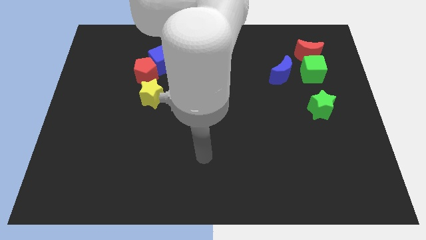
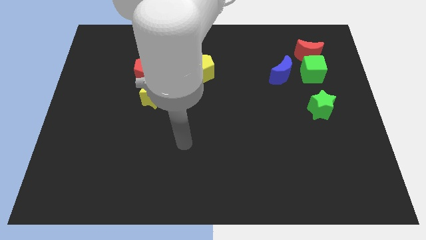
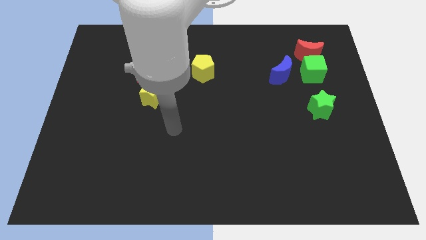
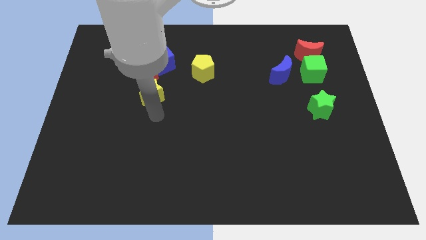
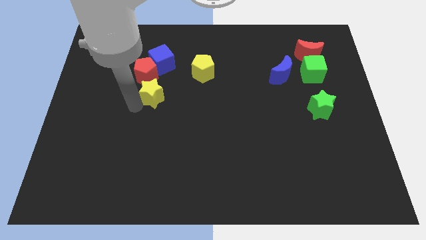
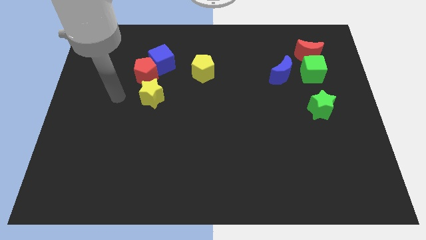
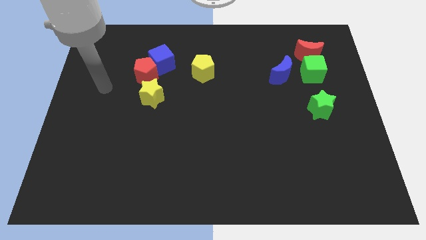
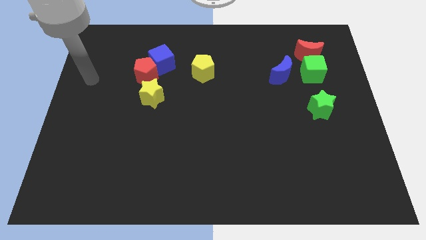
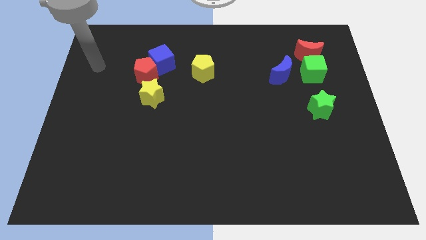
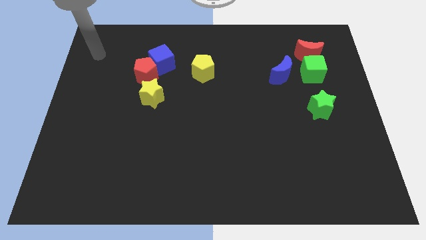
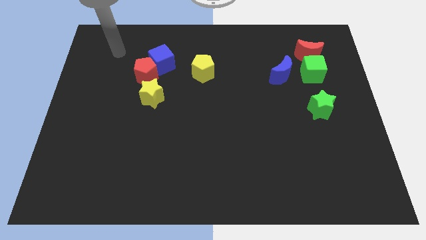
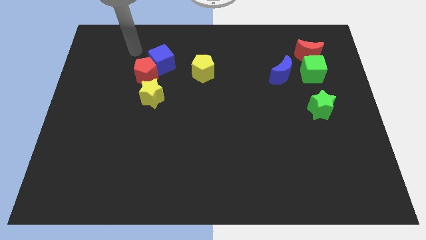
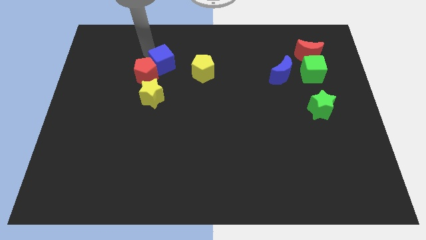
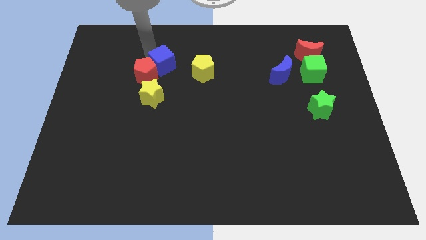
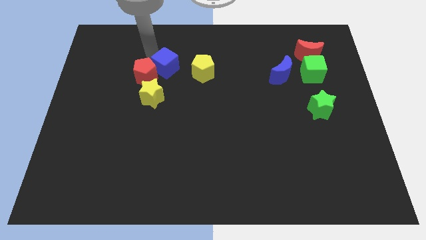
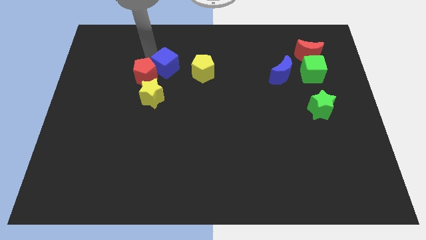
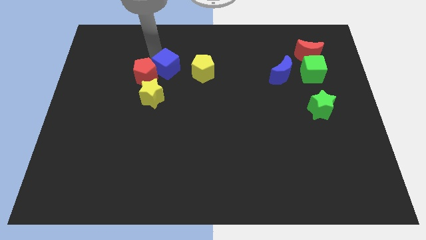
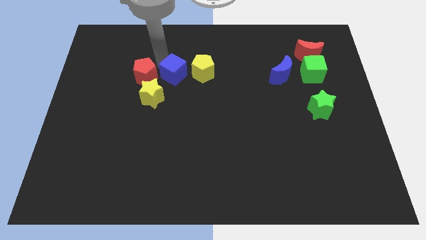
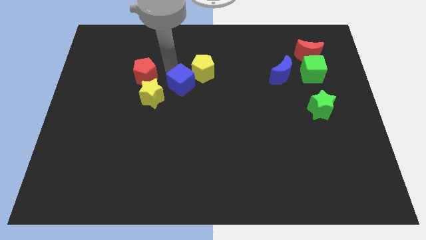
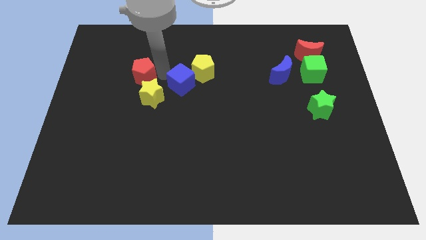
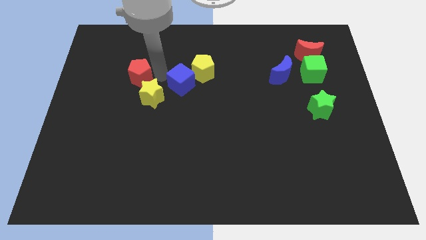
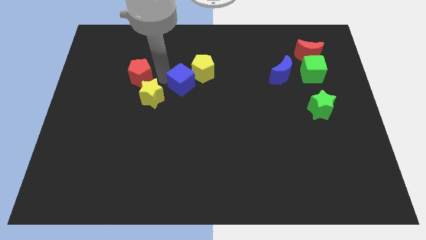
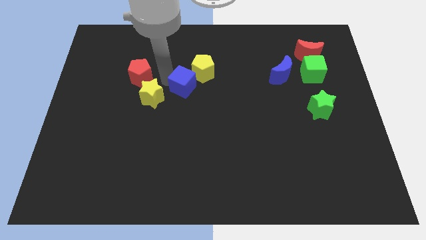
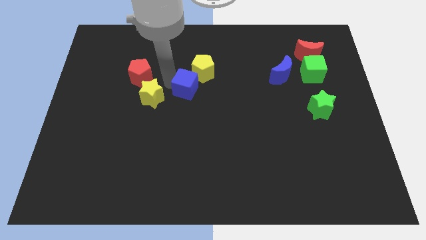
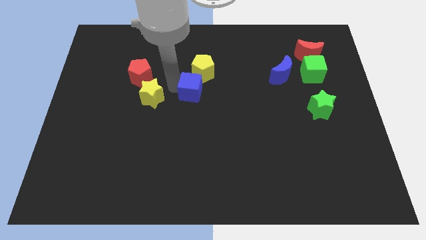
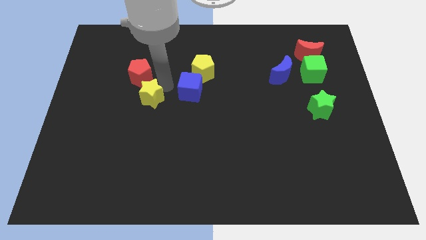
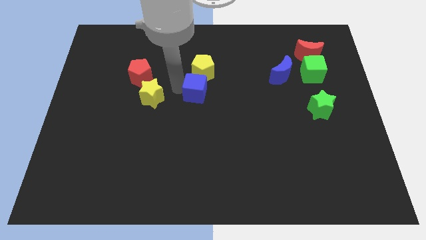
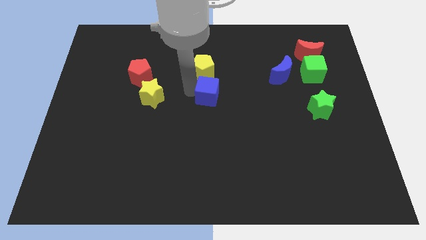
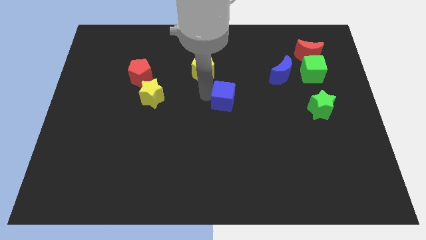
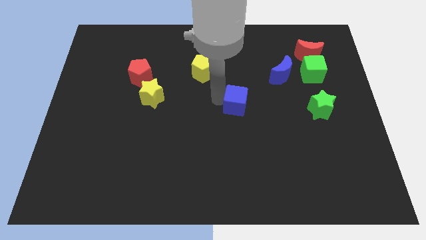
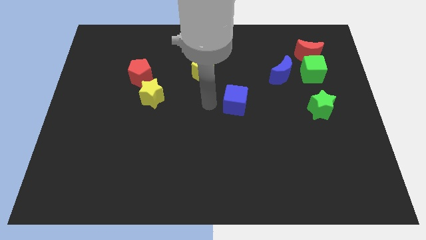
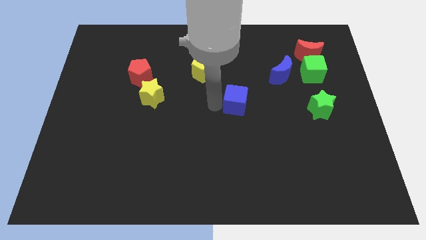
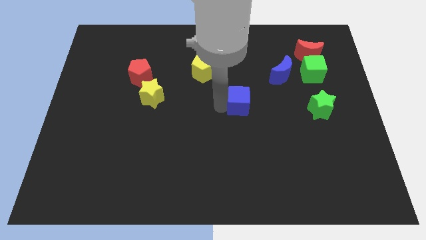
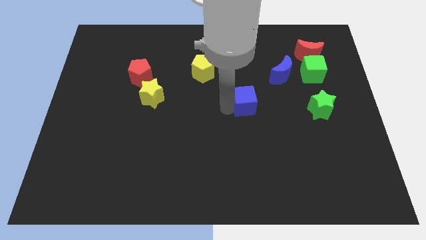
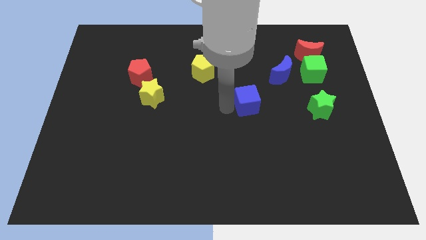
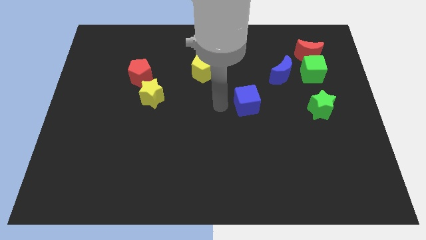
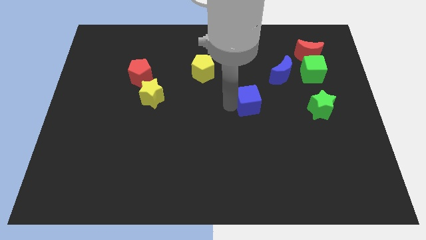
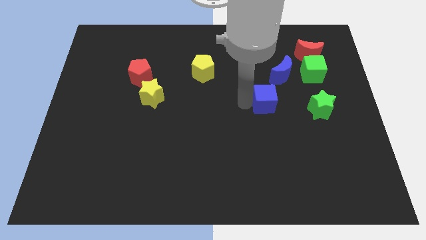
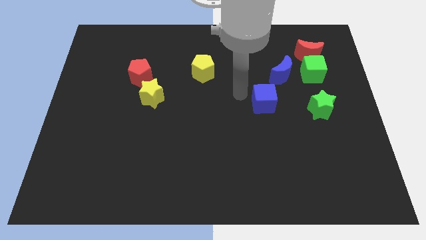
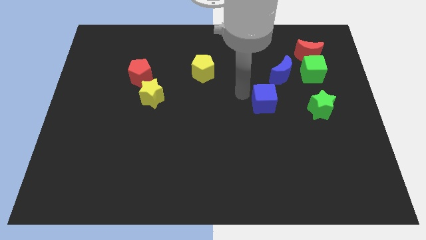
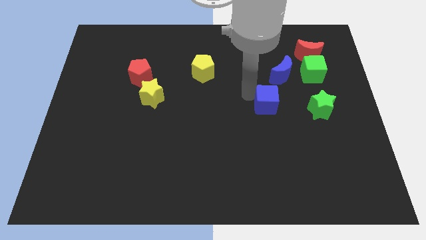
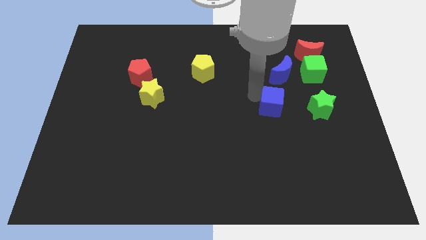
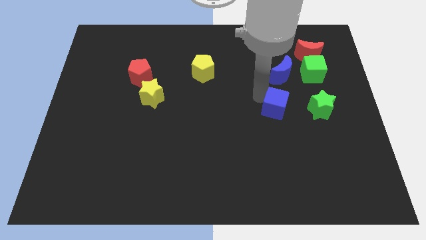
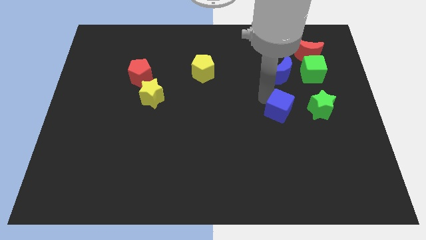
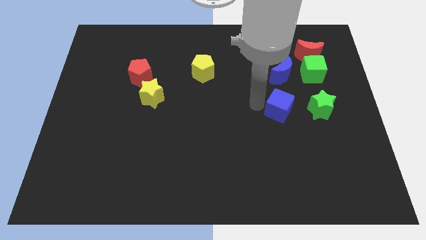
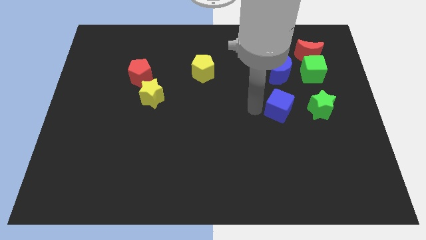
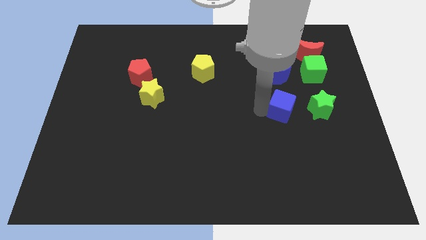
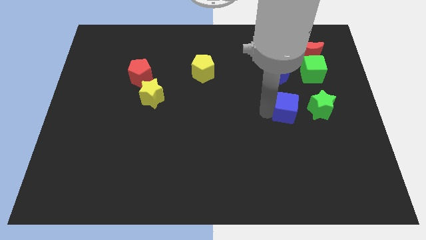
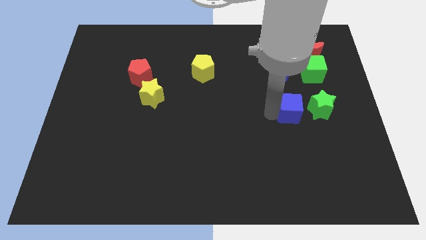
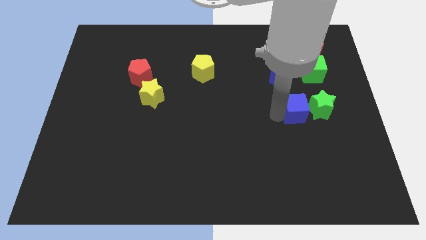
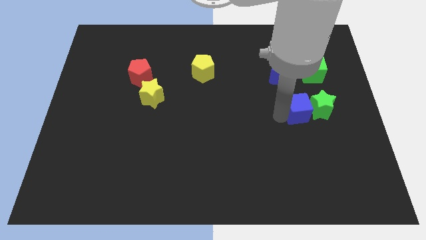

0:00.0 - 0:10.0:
push the blue cube next to the green star

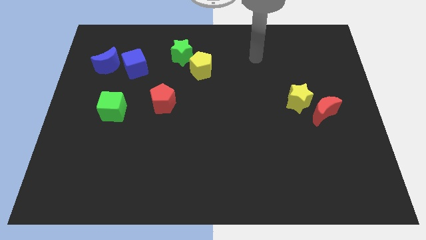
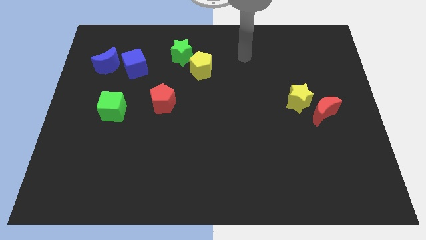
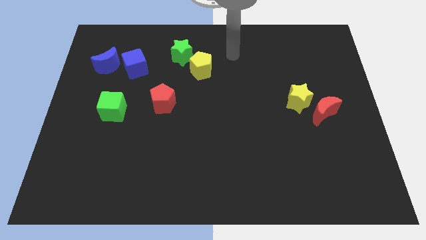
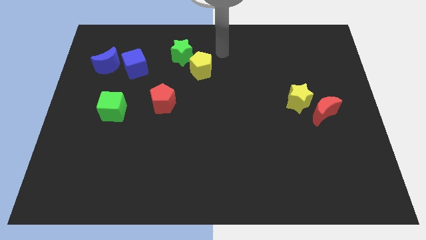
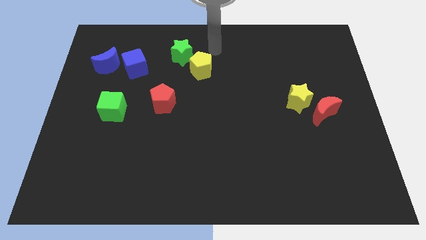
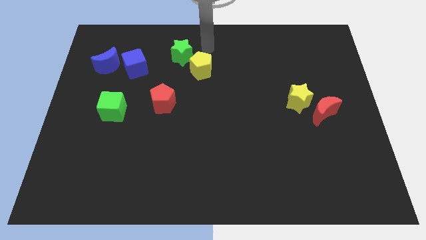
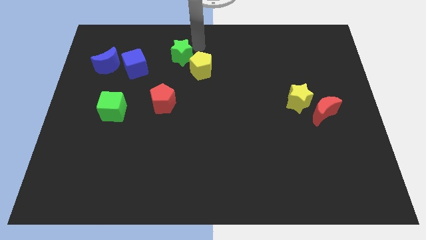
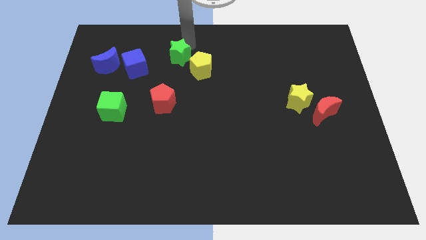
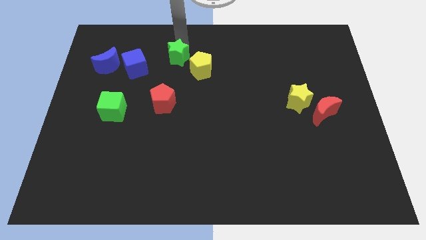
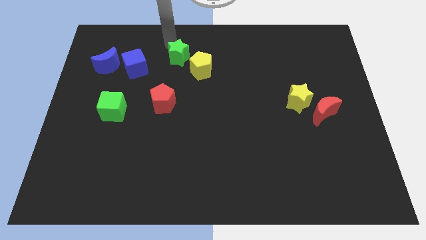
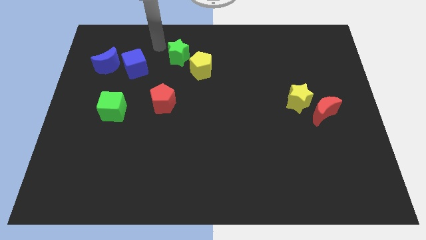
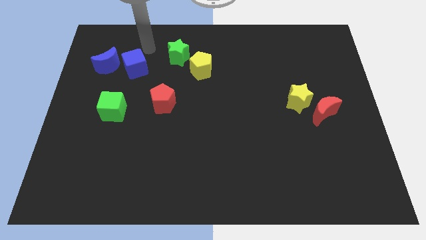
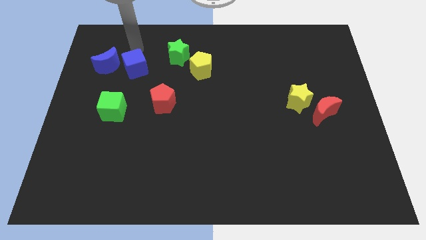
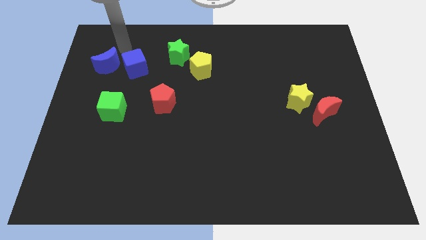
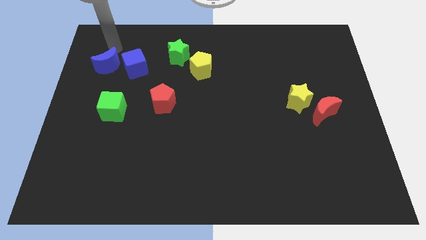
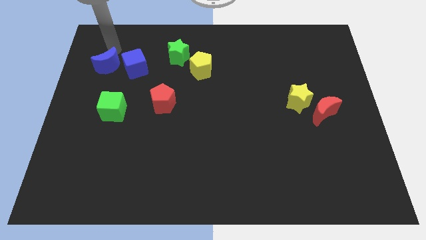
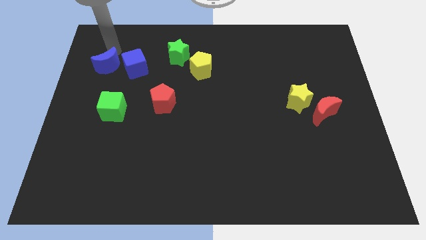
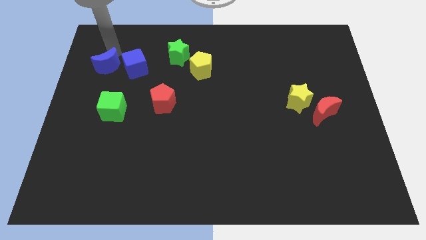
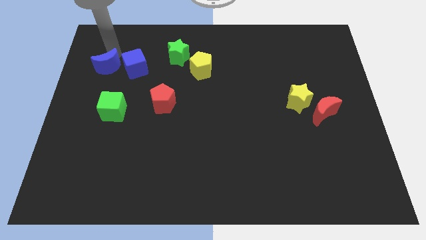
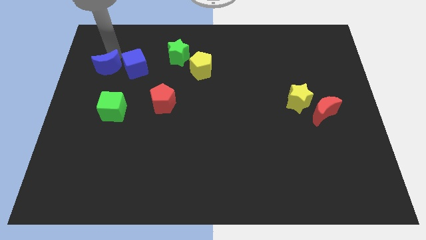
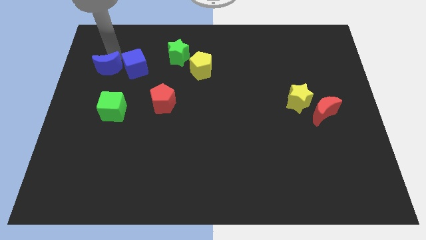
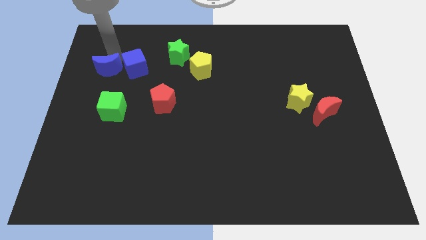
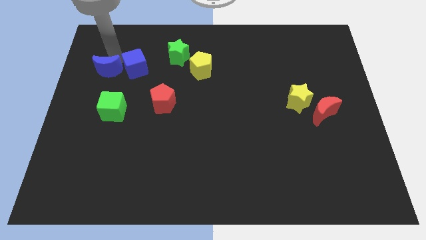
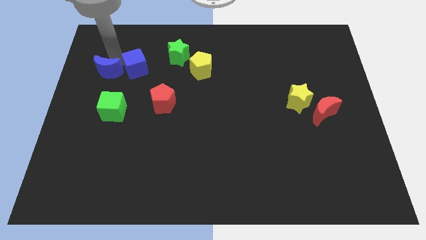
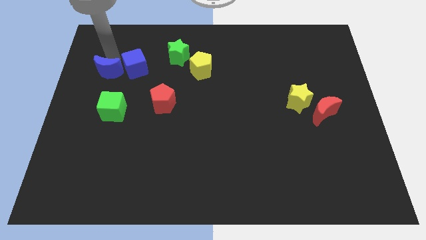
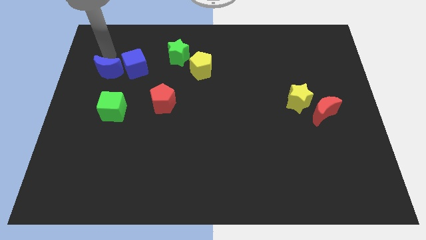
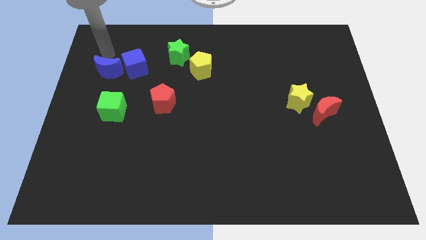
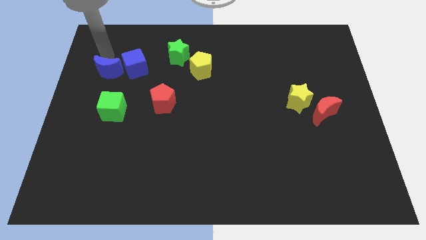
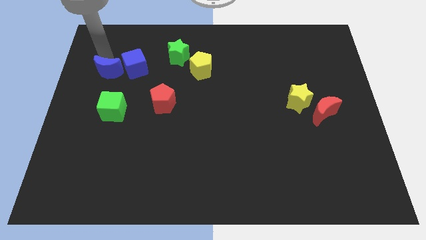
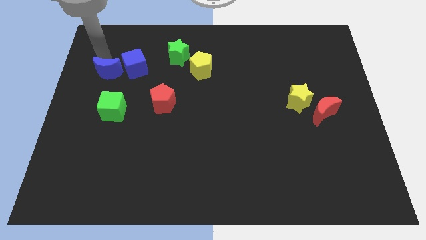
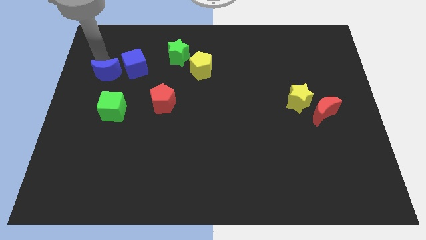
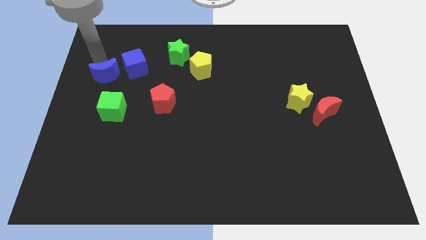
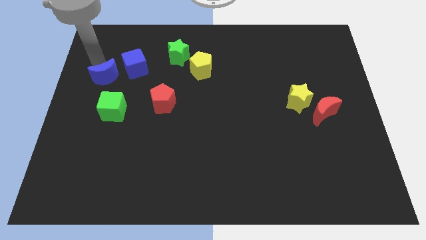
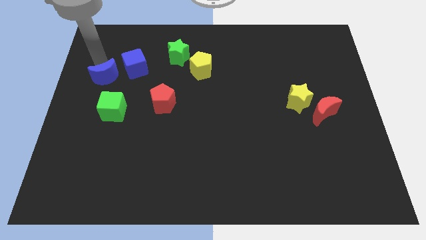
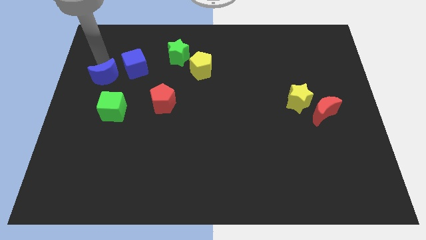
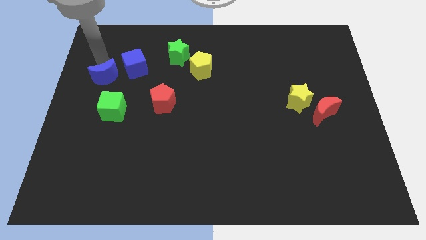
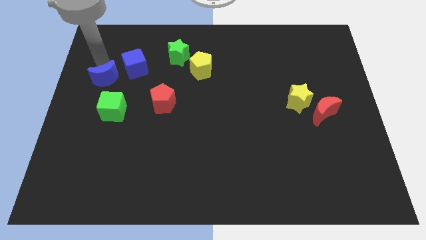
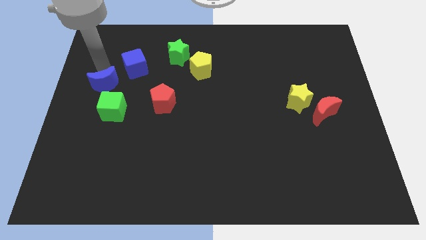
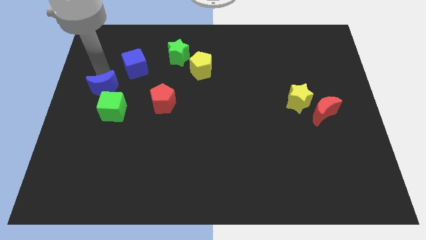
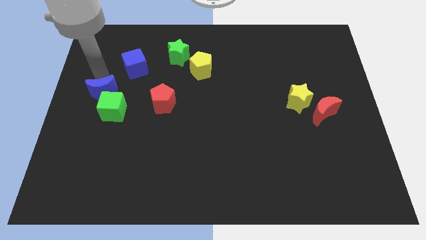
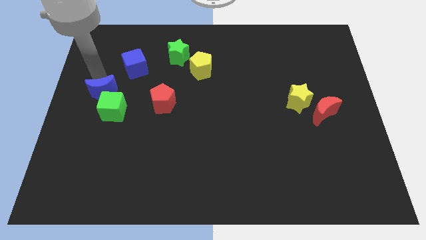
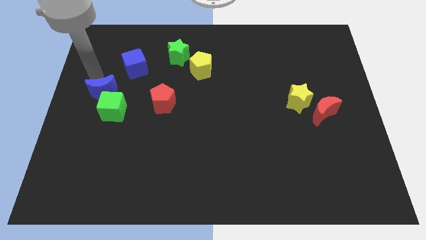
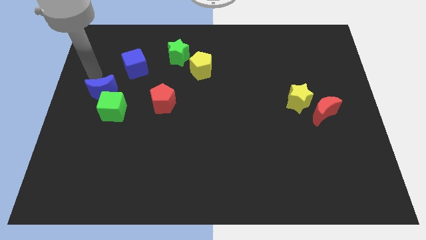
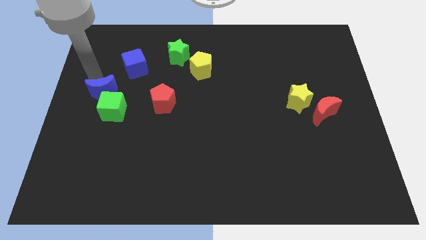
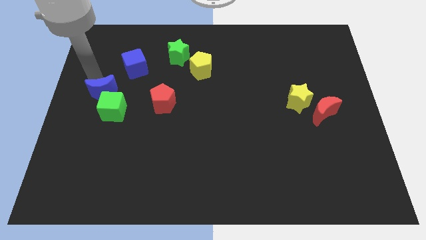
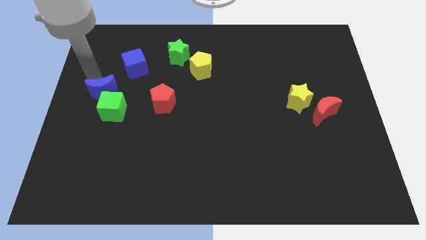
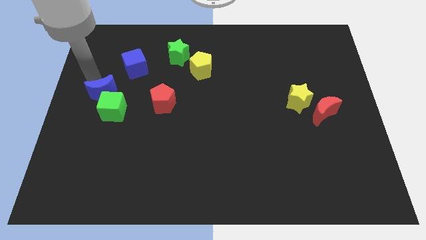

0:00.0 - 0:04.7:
push the blue moon to the green cube
